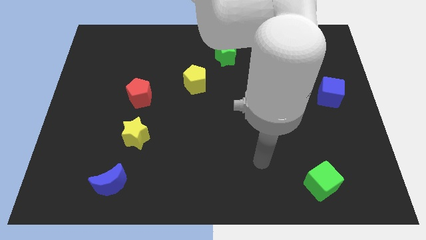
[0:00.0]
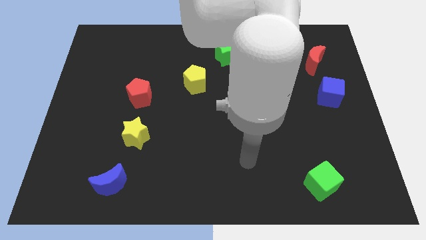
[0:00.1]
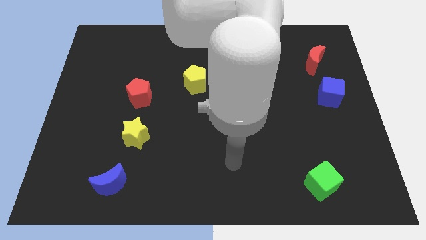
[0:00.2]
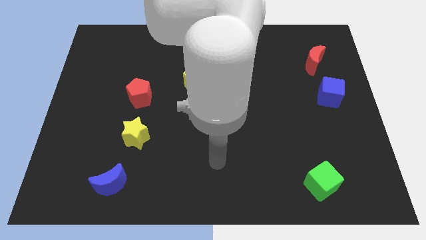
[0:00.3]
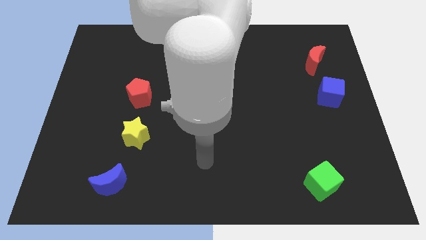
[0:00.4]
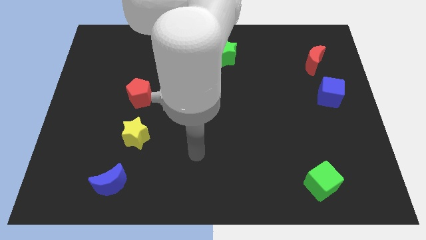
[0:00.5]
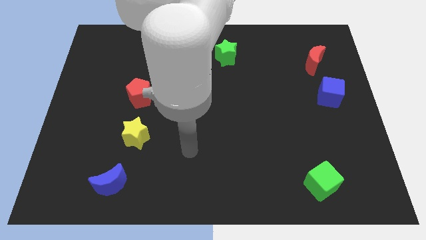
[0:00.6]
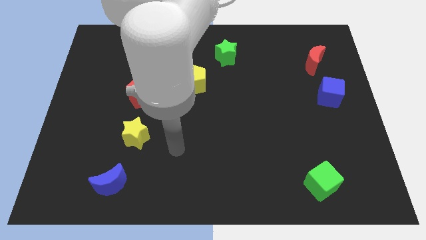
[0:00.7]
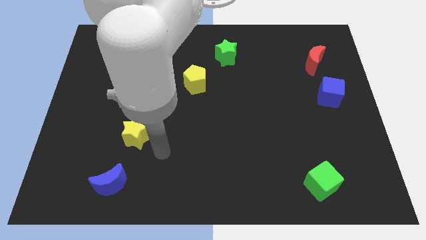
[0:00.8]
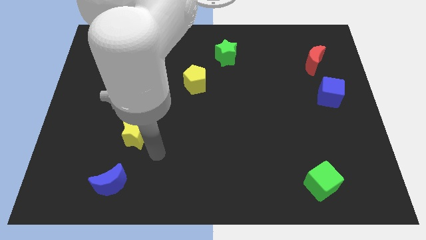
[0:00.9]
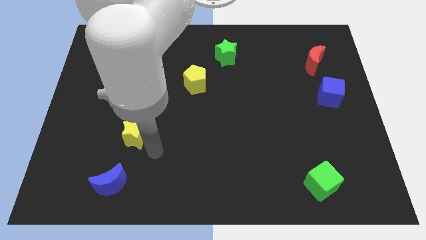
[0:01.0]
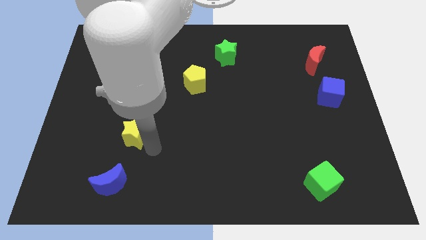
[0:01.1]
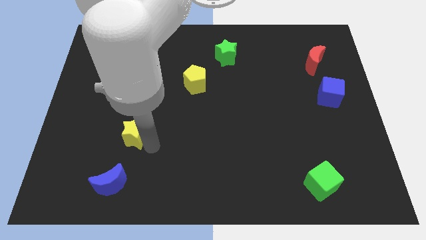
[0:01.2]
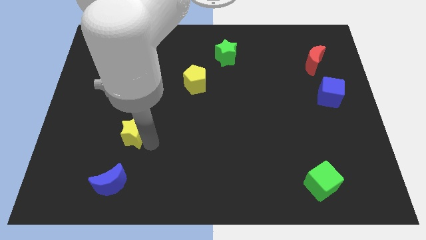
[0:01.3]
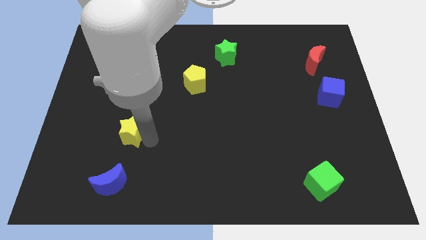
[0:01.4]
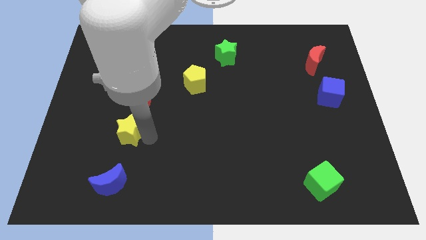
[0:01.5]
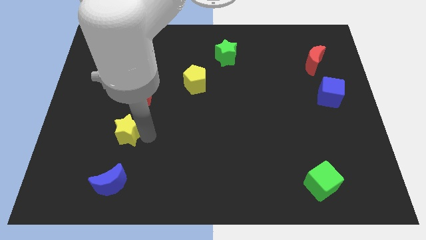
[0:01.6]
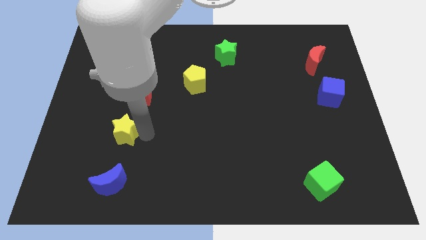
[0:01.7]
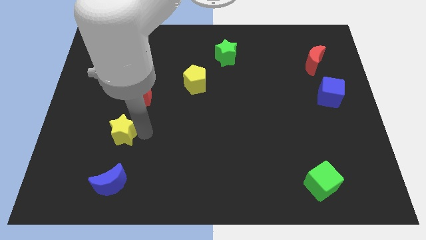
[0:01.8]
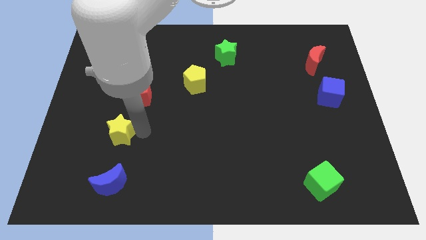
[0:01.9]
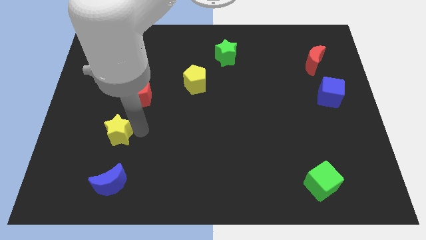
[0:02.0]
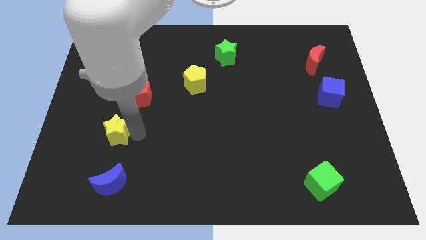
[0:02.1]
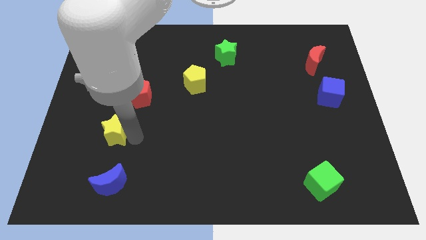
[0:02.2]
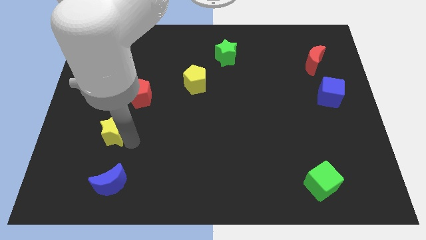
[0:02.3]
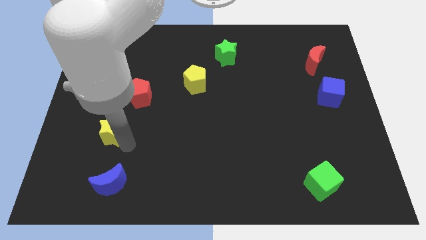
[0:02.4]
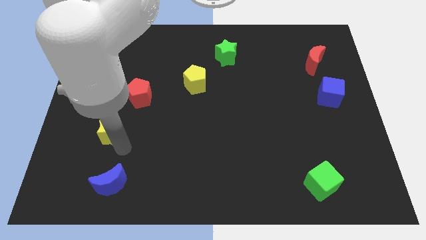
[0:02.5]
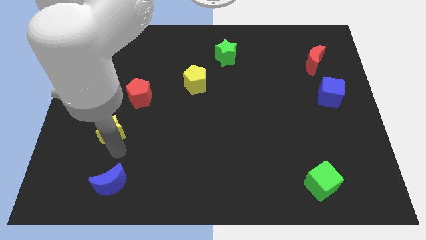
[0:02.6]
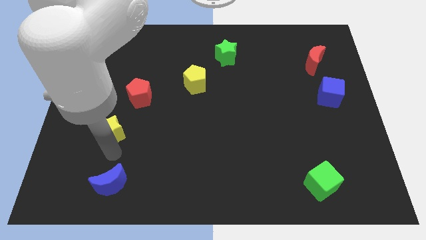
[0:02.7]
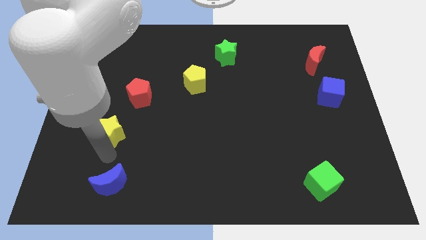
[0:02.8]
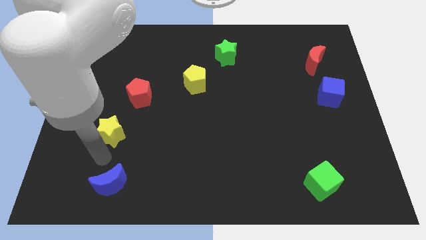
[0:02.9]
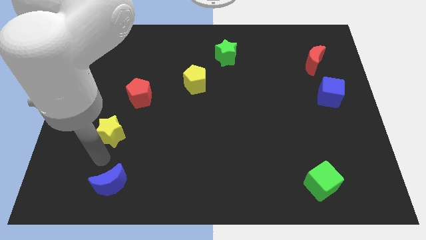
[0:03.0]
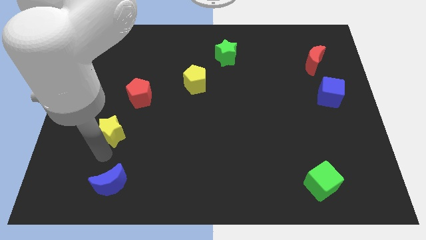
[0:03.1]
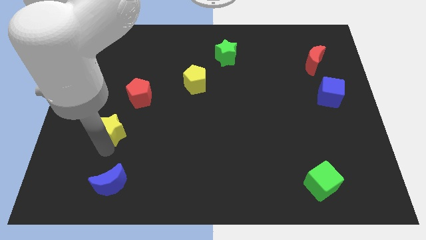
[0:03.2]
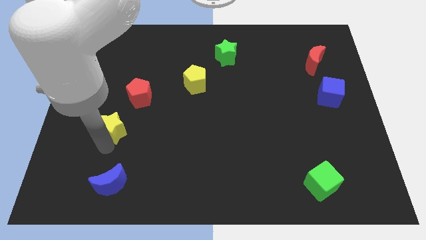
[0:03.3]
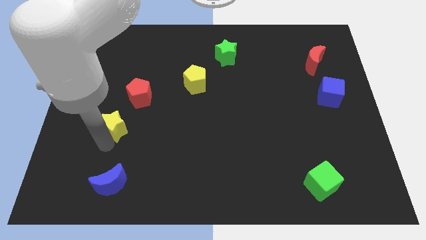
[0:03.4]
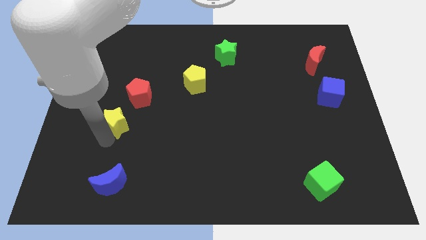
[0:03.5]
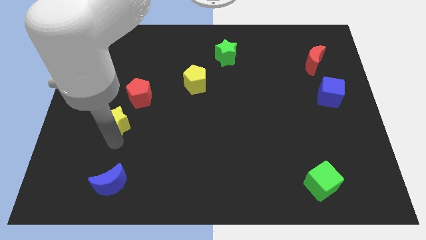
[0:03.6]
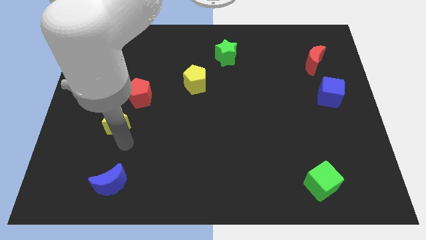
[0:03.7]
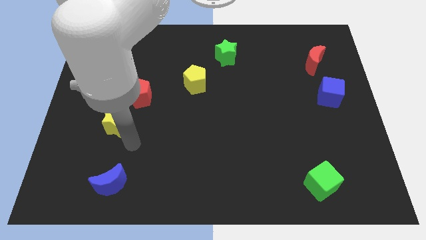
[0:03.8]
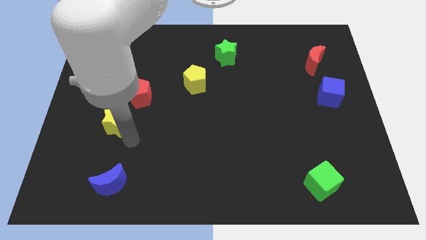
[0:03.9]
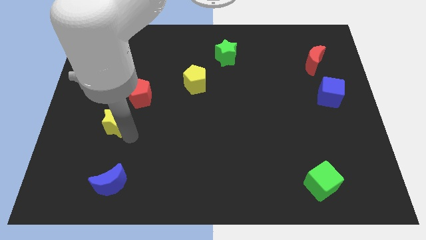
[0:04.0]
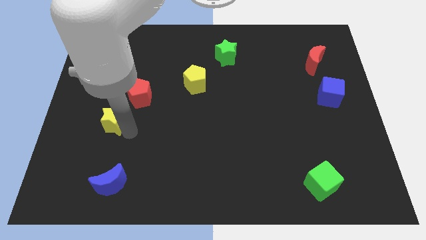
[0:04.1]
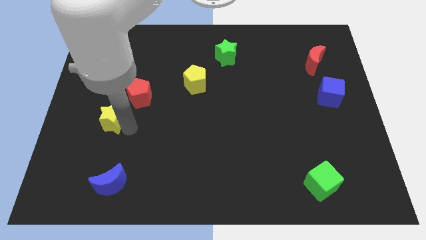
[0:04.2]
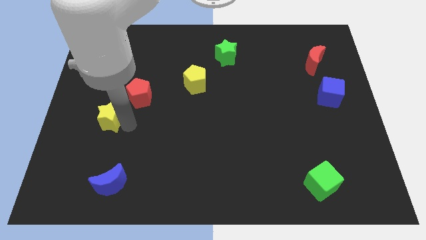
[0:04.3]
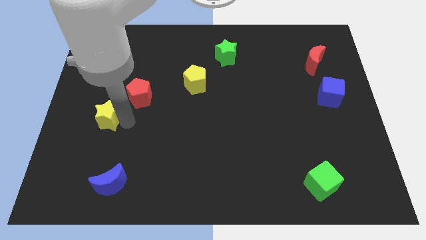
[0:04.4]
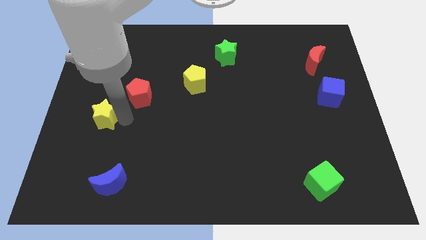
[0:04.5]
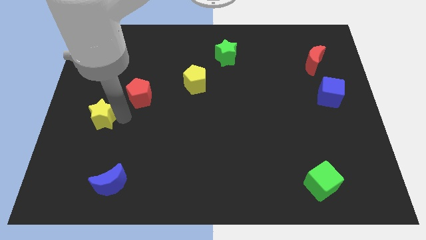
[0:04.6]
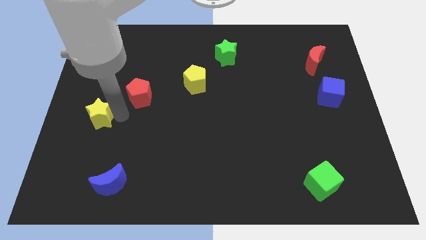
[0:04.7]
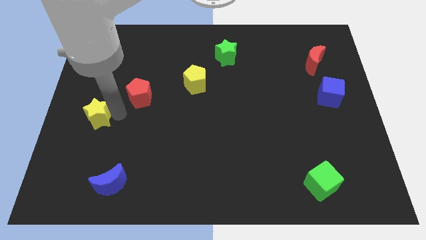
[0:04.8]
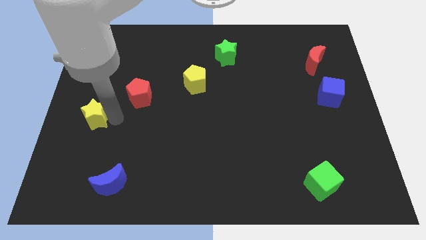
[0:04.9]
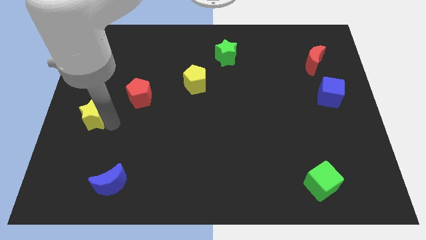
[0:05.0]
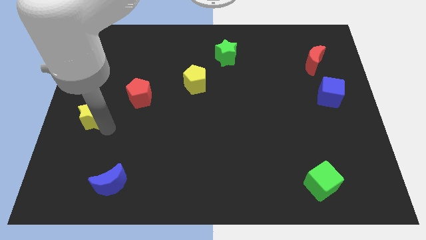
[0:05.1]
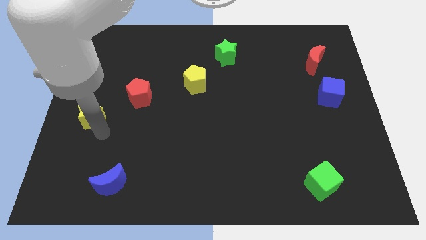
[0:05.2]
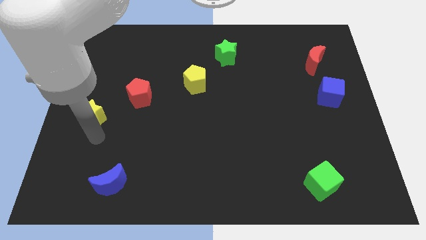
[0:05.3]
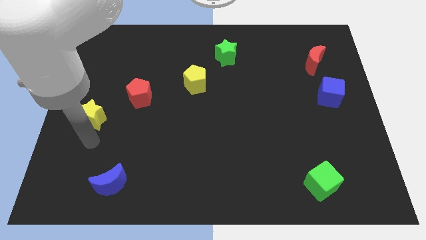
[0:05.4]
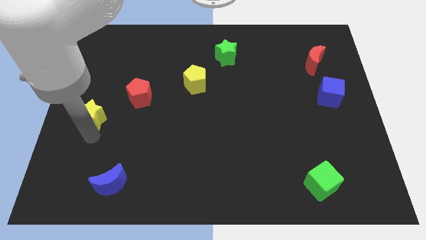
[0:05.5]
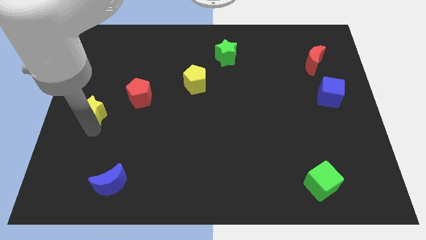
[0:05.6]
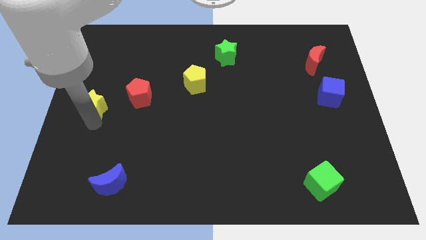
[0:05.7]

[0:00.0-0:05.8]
put the yellow star left of the red pentagon

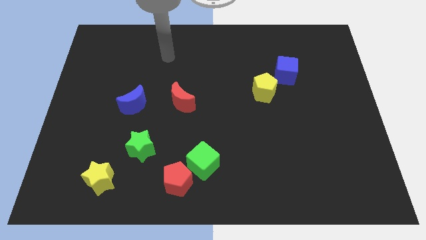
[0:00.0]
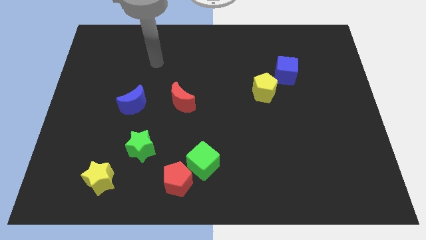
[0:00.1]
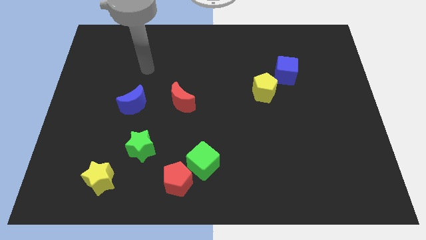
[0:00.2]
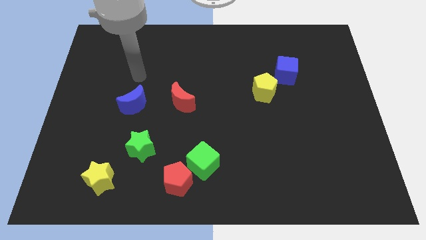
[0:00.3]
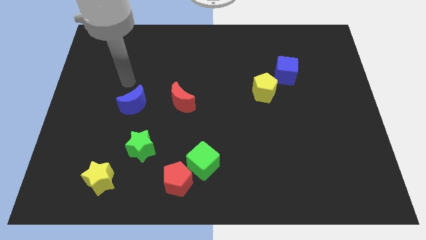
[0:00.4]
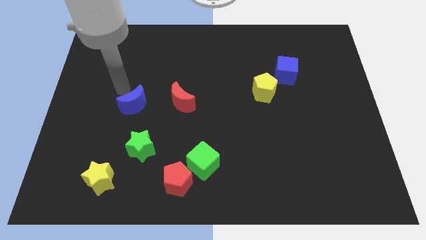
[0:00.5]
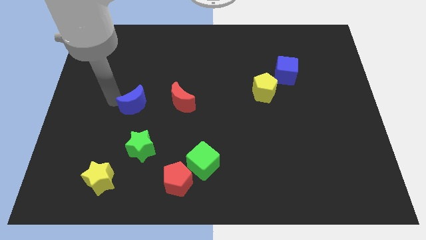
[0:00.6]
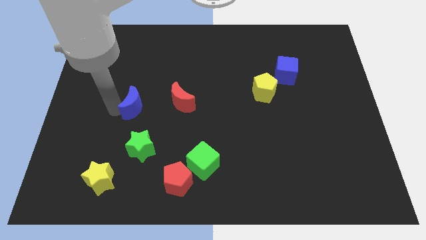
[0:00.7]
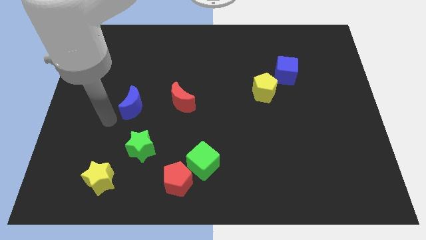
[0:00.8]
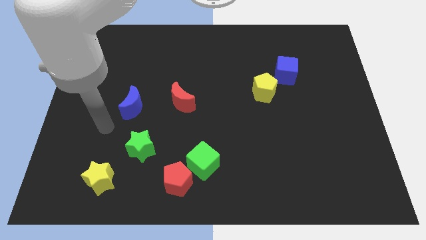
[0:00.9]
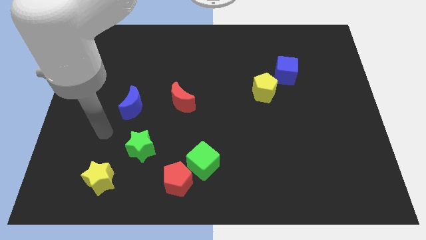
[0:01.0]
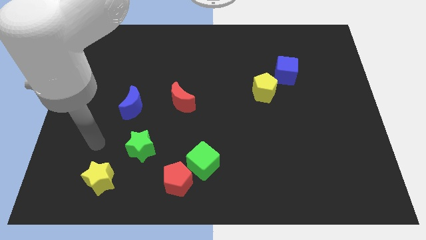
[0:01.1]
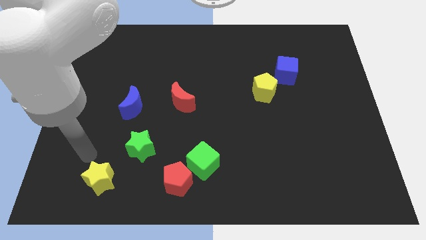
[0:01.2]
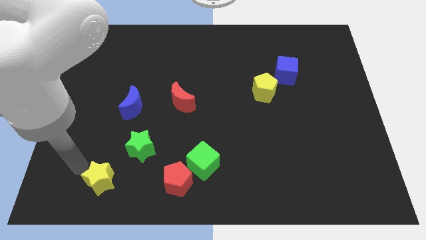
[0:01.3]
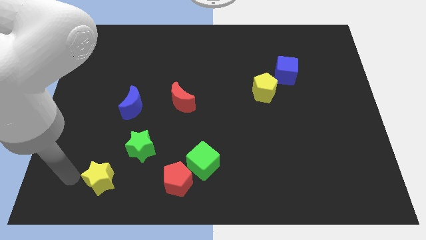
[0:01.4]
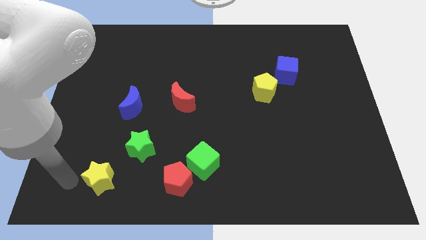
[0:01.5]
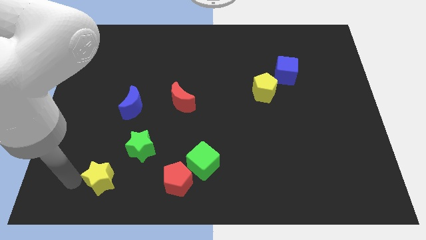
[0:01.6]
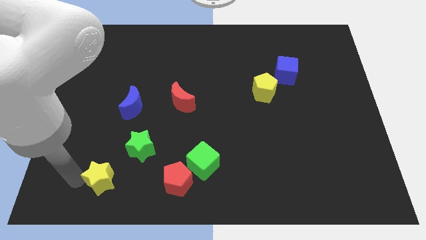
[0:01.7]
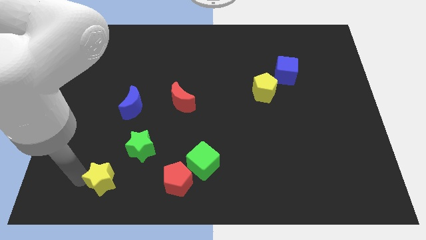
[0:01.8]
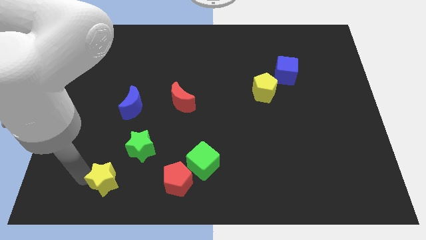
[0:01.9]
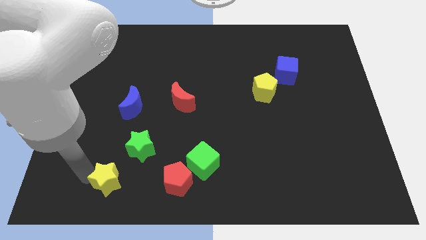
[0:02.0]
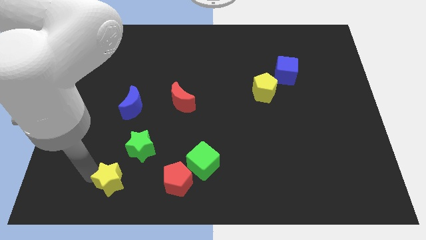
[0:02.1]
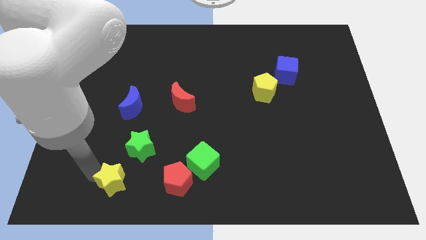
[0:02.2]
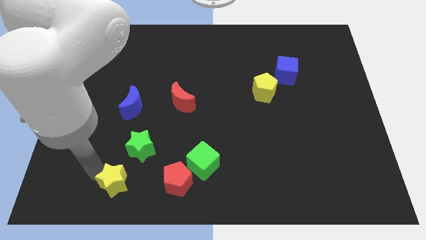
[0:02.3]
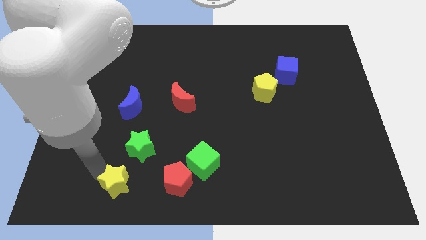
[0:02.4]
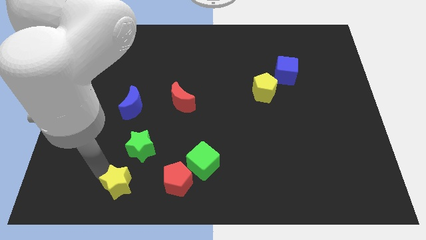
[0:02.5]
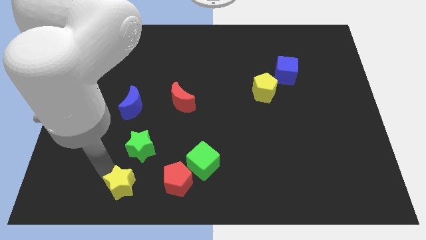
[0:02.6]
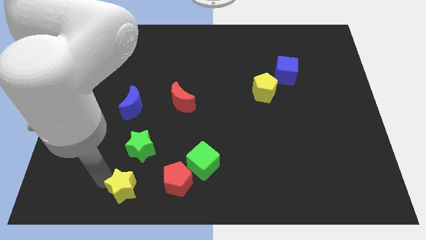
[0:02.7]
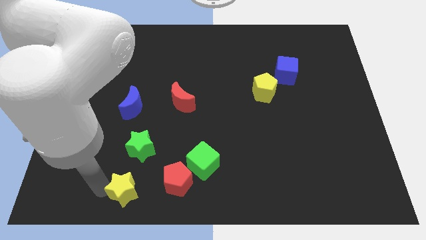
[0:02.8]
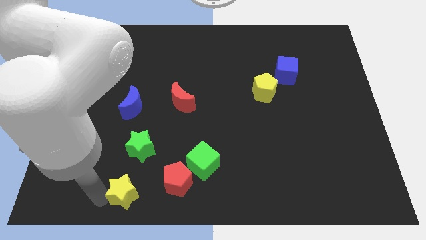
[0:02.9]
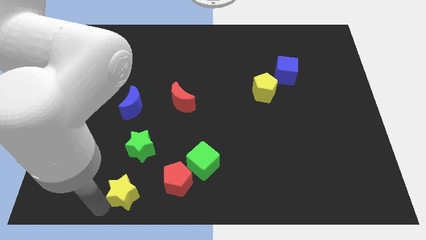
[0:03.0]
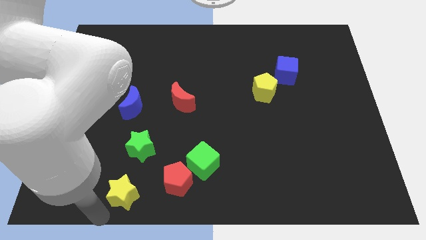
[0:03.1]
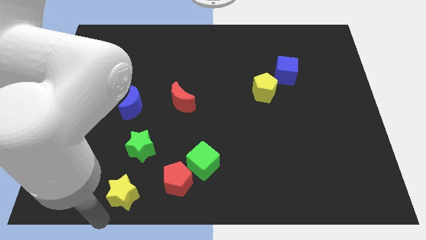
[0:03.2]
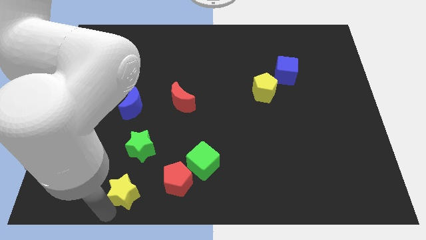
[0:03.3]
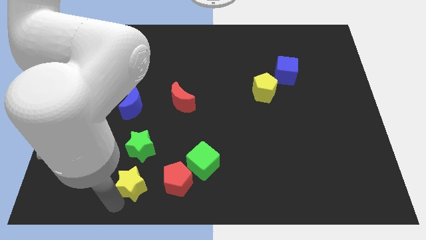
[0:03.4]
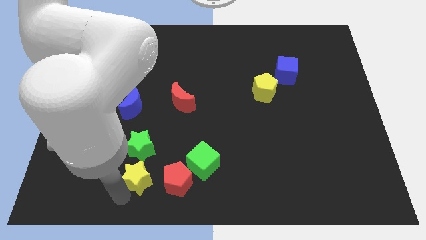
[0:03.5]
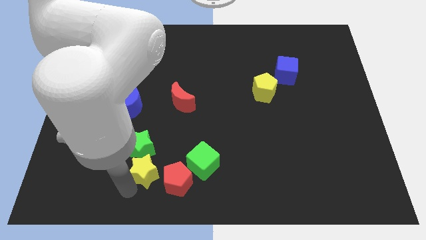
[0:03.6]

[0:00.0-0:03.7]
slide the yellow star diagonally up and to the left of the red pentagon
